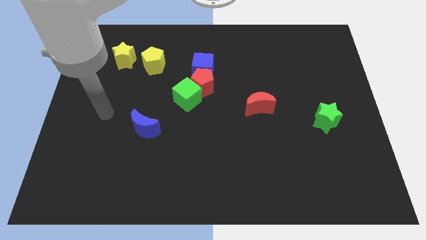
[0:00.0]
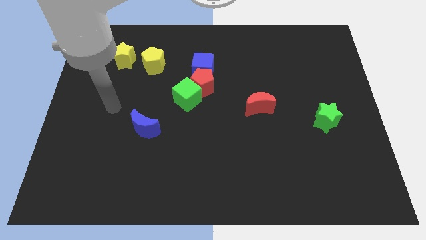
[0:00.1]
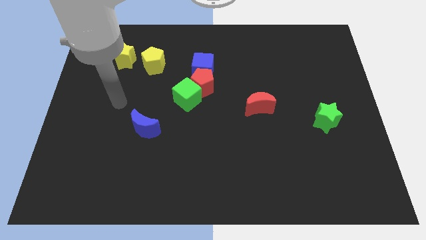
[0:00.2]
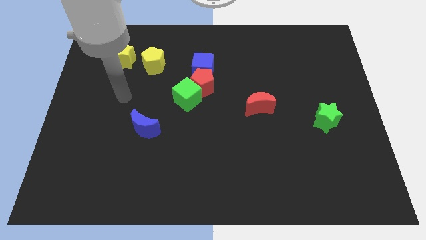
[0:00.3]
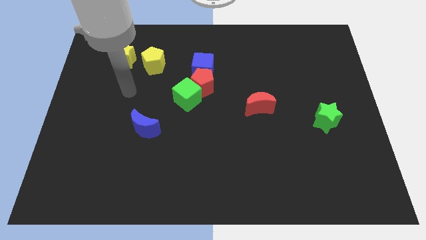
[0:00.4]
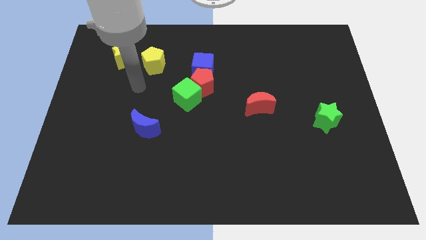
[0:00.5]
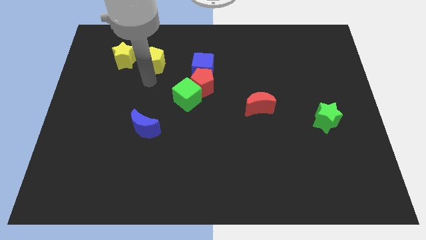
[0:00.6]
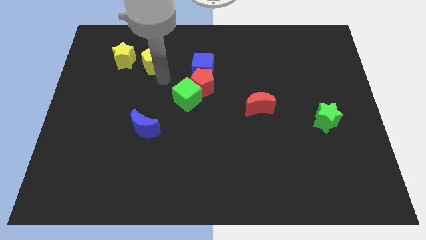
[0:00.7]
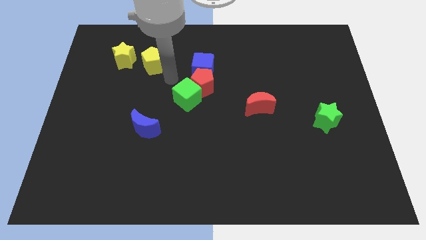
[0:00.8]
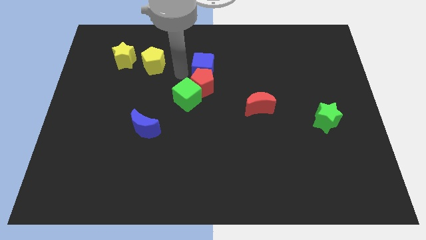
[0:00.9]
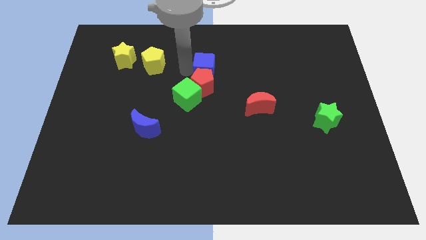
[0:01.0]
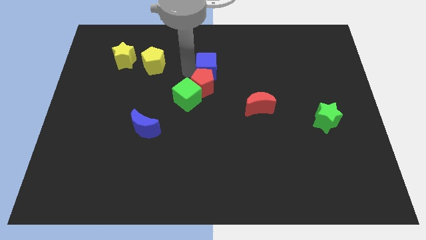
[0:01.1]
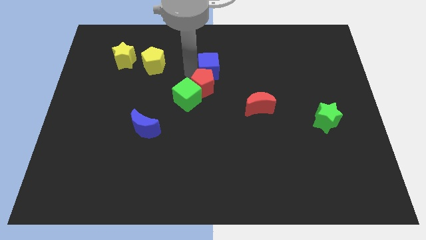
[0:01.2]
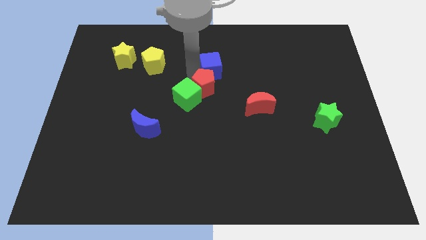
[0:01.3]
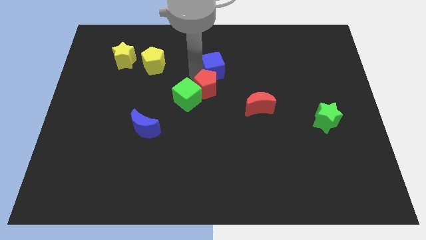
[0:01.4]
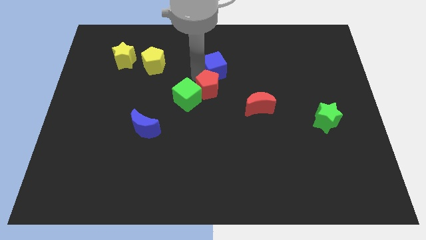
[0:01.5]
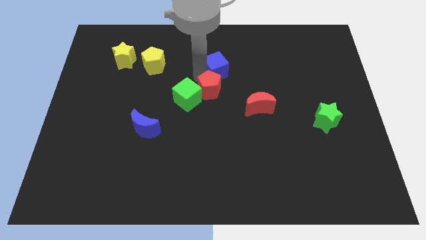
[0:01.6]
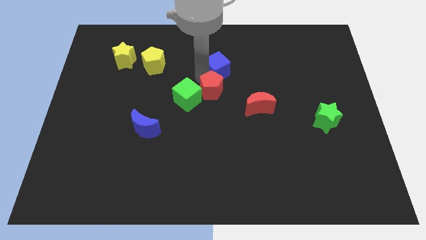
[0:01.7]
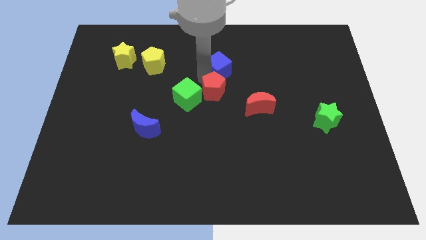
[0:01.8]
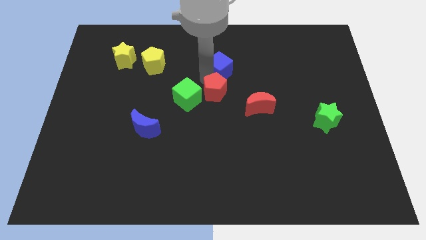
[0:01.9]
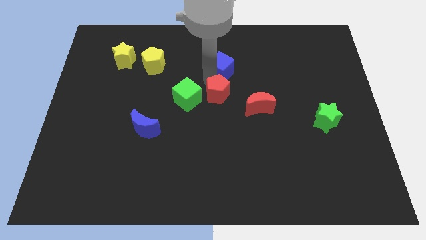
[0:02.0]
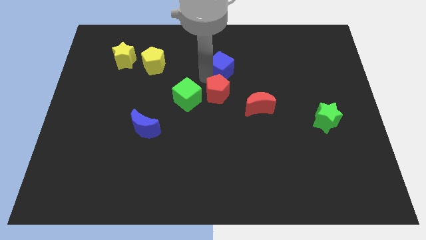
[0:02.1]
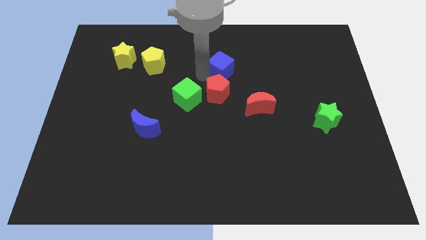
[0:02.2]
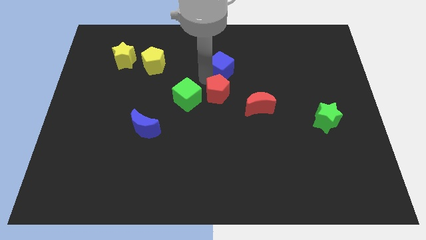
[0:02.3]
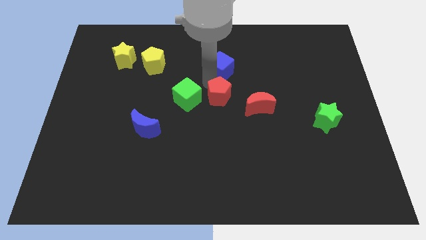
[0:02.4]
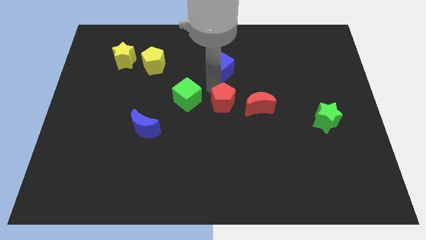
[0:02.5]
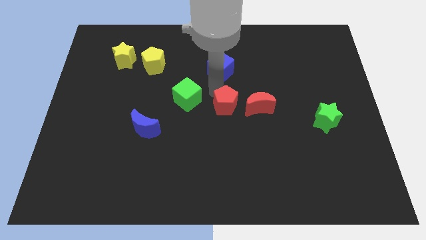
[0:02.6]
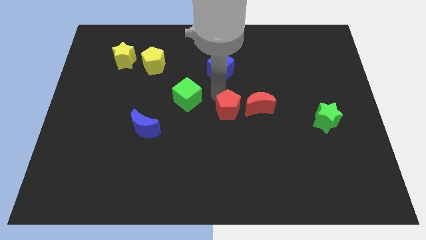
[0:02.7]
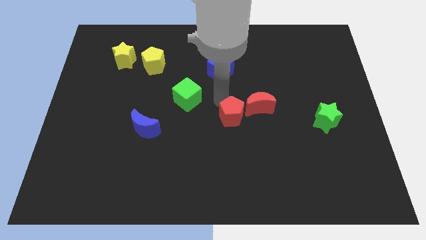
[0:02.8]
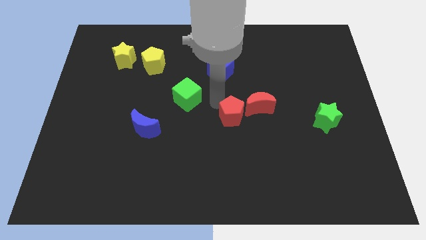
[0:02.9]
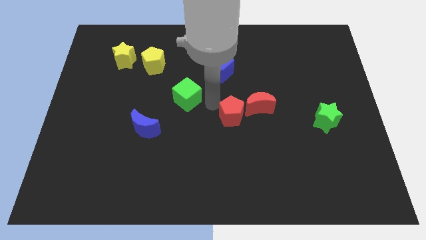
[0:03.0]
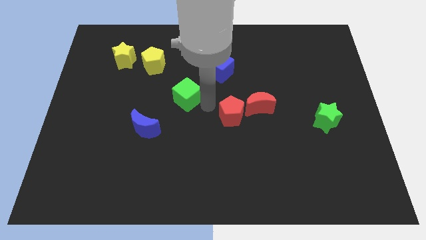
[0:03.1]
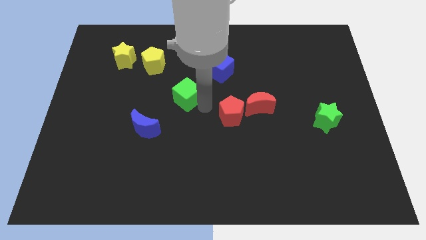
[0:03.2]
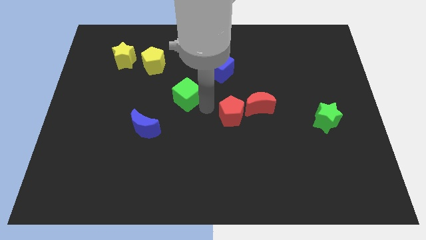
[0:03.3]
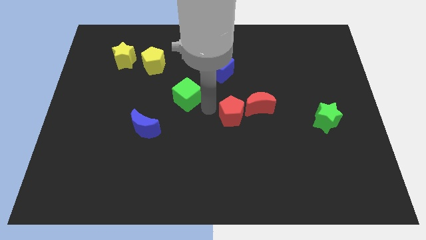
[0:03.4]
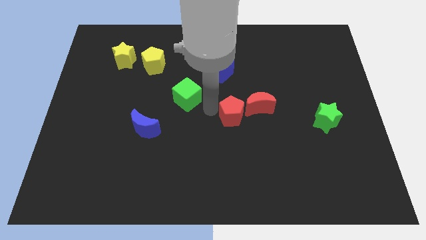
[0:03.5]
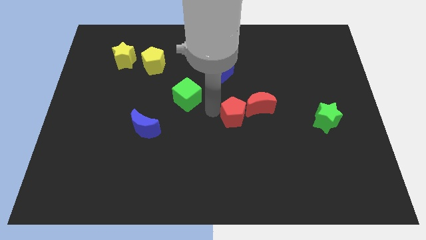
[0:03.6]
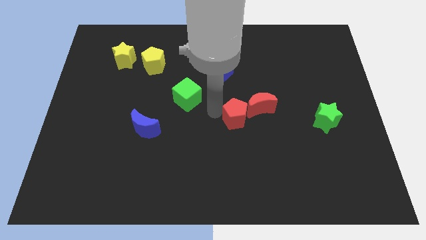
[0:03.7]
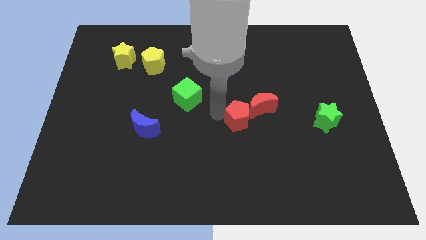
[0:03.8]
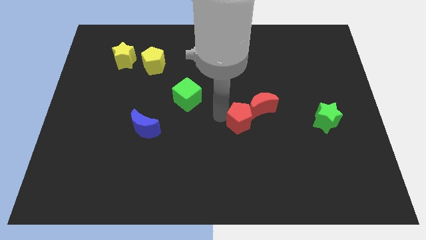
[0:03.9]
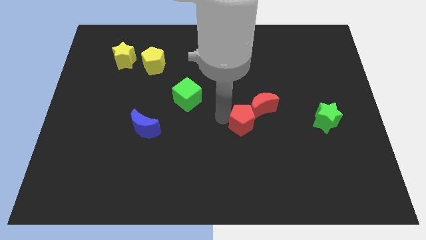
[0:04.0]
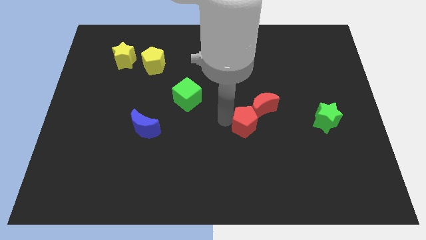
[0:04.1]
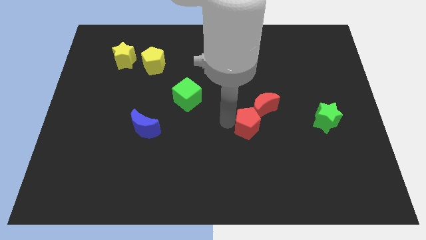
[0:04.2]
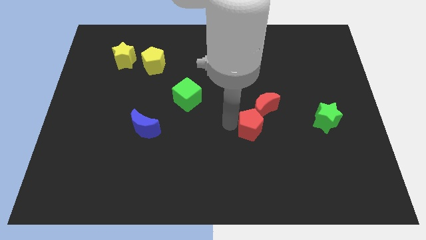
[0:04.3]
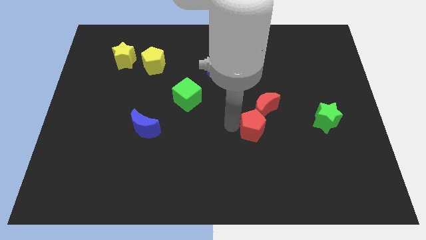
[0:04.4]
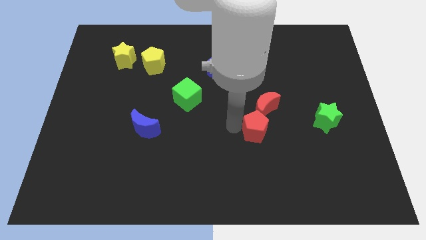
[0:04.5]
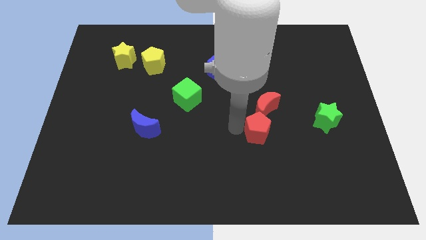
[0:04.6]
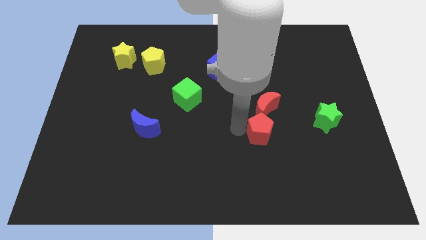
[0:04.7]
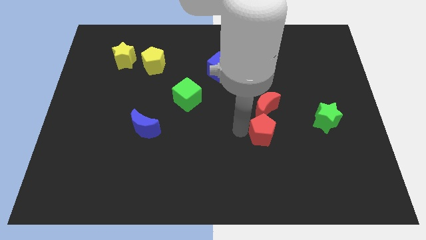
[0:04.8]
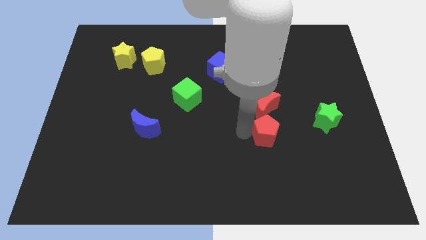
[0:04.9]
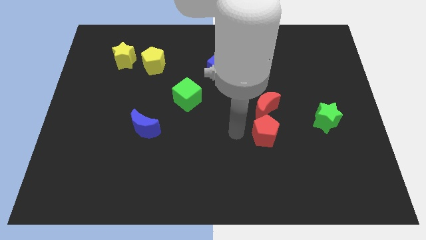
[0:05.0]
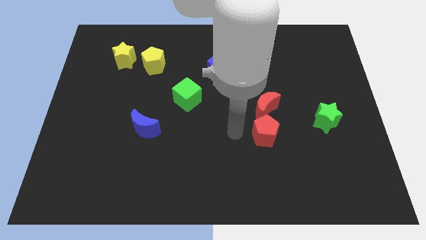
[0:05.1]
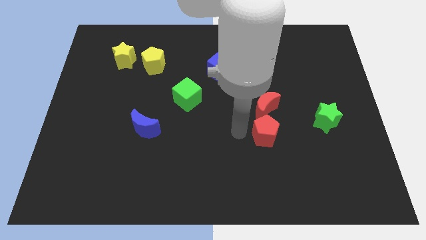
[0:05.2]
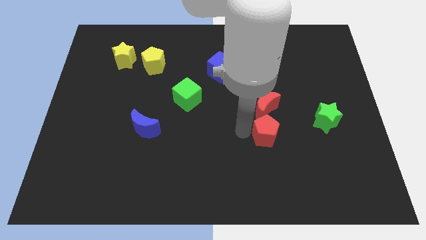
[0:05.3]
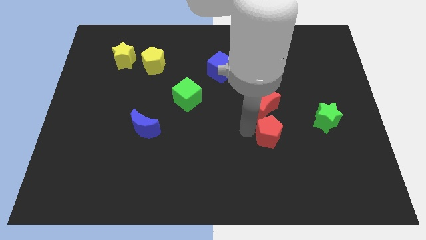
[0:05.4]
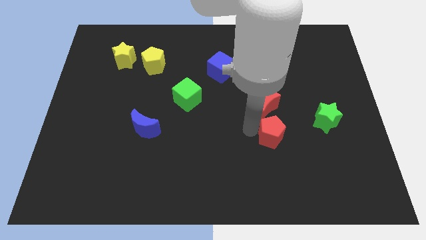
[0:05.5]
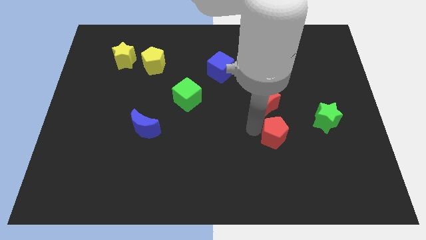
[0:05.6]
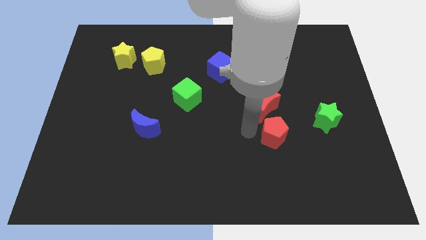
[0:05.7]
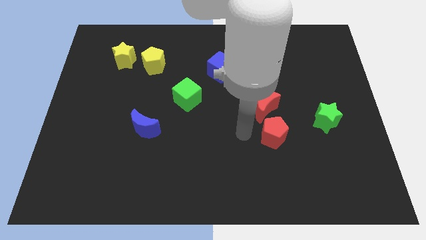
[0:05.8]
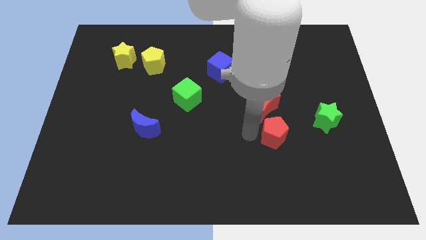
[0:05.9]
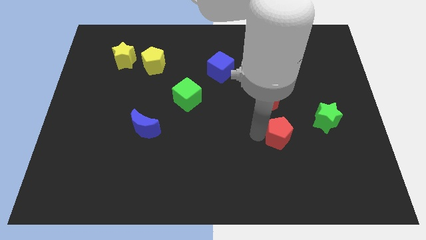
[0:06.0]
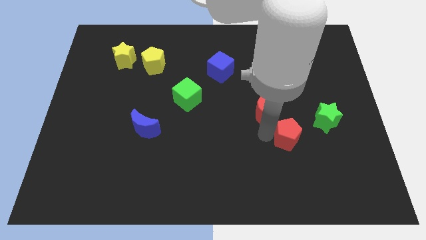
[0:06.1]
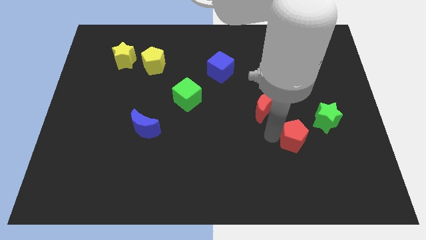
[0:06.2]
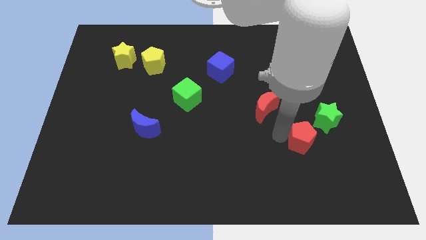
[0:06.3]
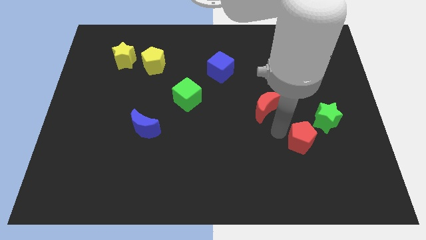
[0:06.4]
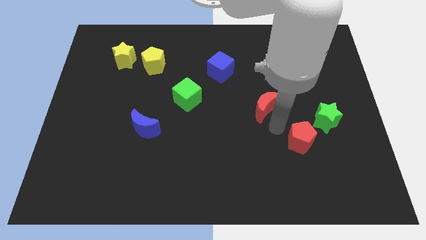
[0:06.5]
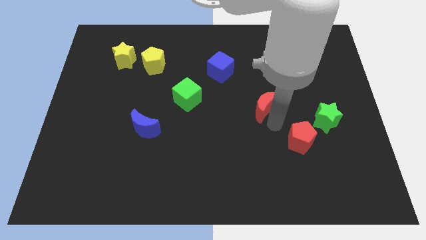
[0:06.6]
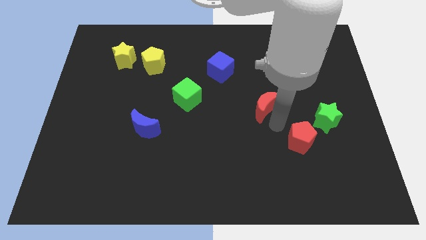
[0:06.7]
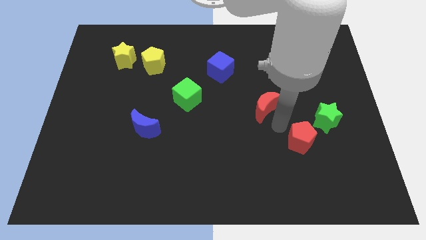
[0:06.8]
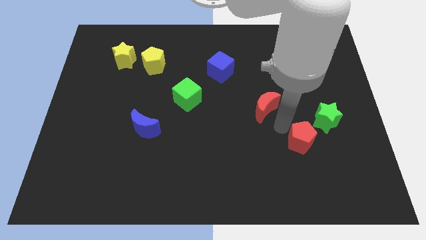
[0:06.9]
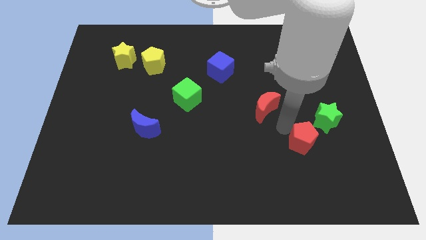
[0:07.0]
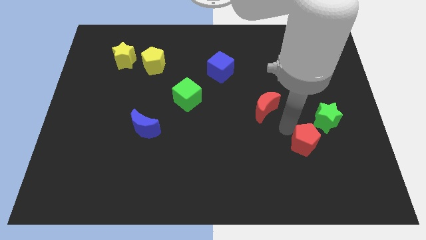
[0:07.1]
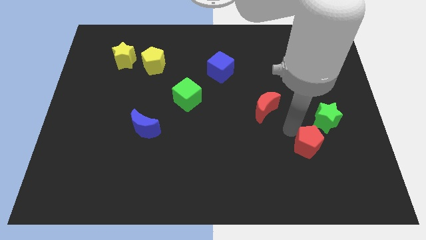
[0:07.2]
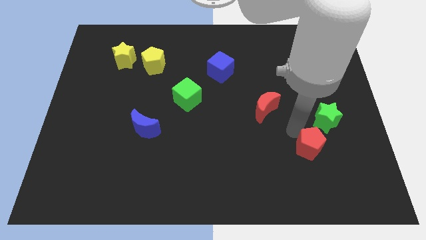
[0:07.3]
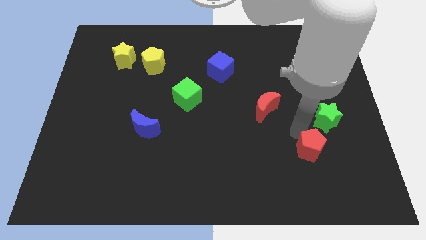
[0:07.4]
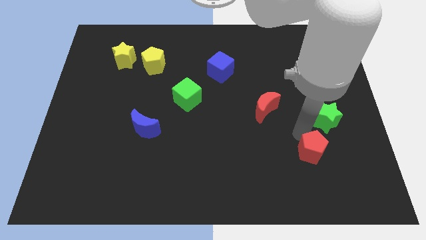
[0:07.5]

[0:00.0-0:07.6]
push the red pentagon to the bottom side of the green star
